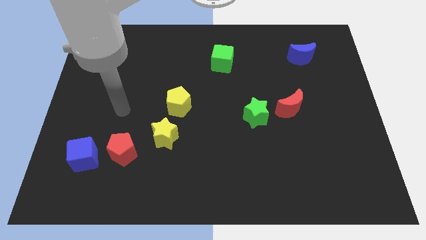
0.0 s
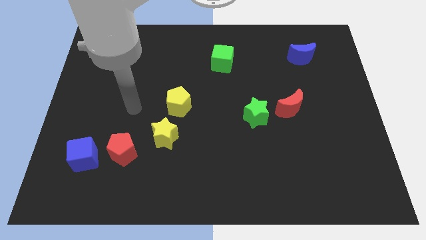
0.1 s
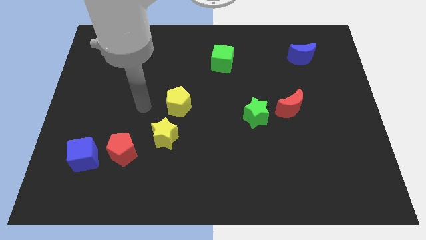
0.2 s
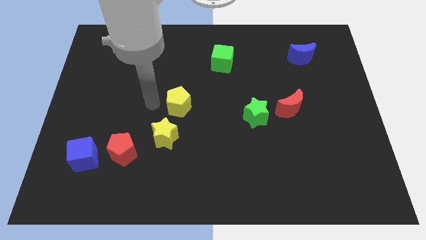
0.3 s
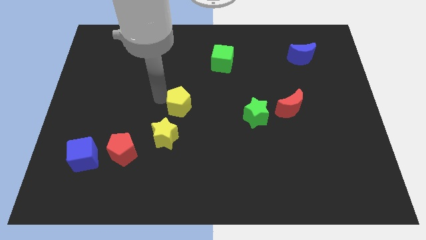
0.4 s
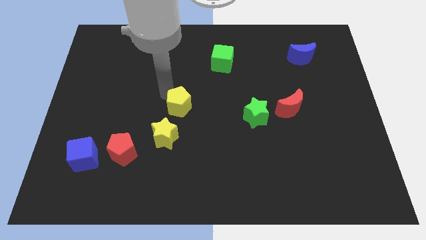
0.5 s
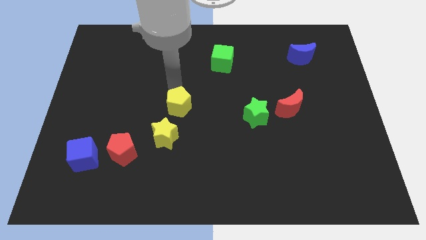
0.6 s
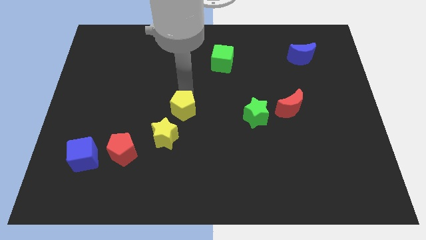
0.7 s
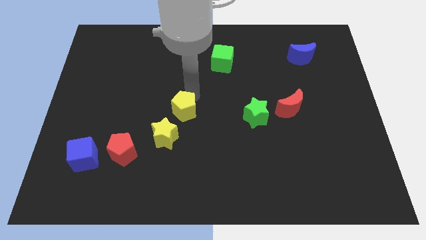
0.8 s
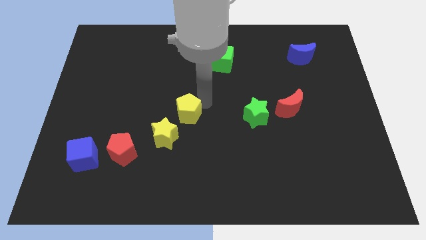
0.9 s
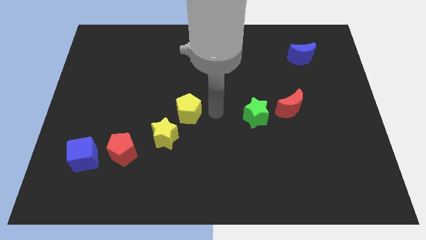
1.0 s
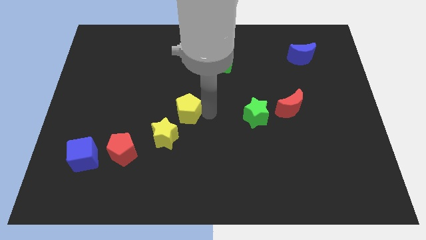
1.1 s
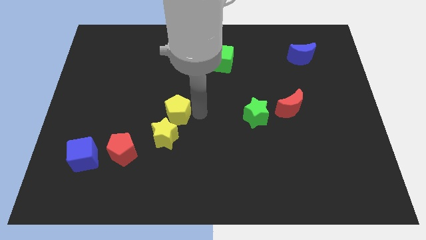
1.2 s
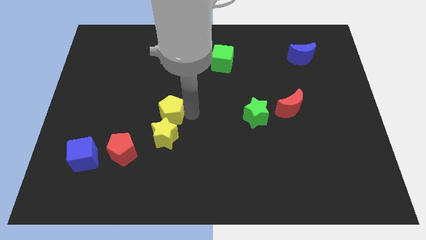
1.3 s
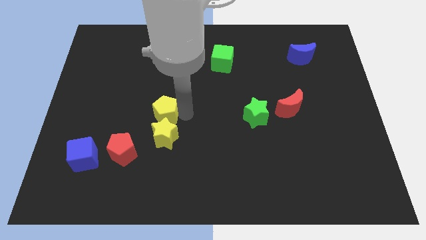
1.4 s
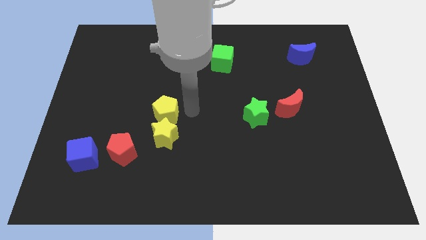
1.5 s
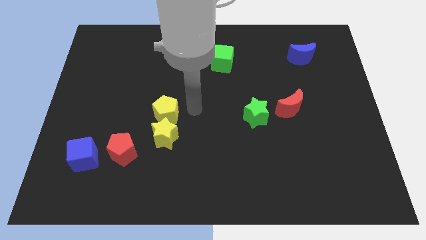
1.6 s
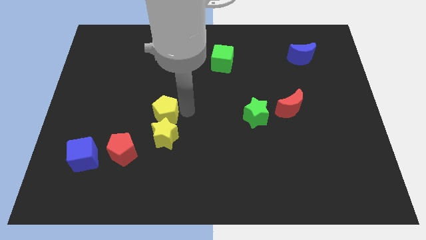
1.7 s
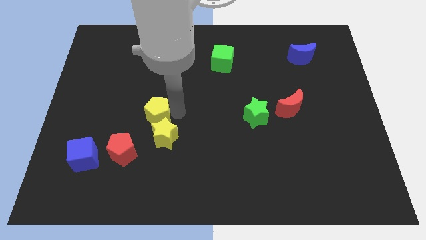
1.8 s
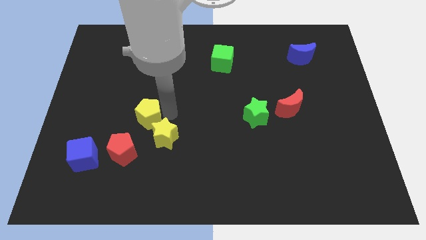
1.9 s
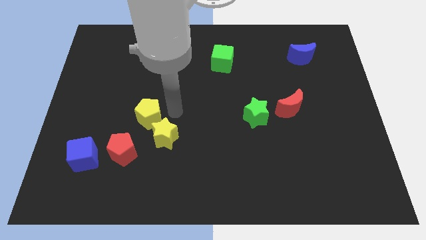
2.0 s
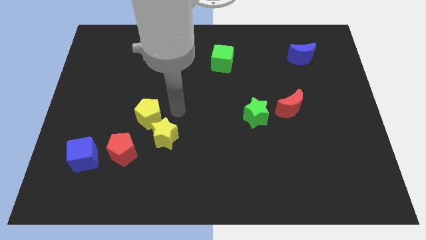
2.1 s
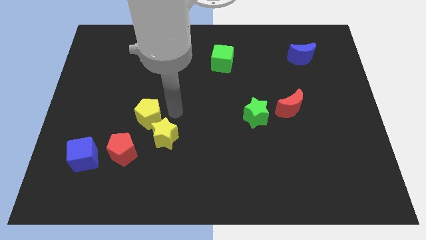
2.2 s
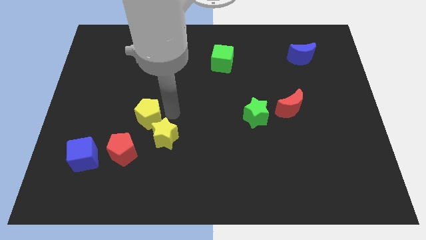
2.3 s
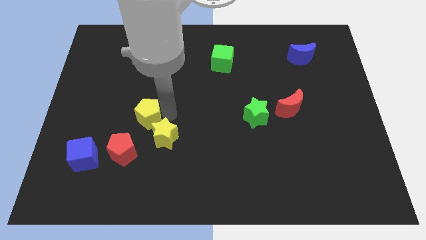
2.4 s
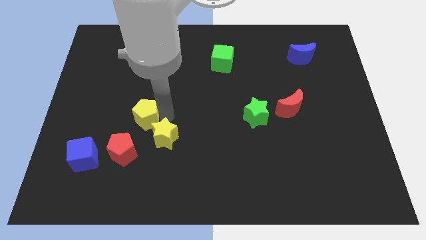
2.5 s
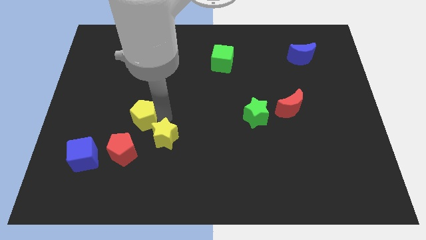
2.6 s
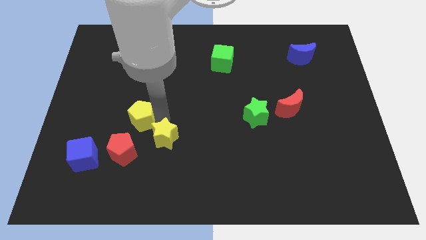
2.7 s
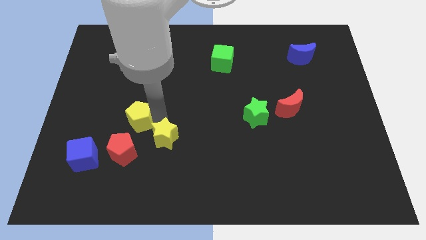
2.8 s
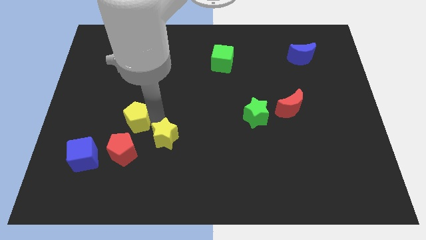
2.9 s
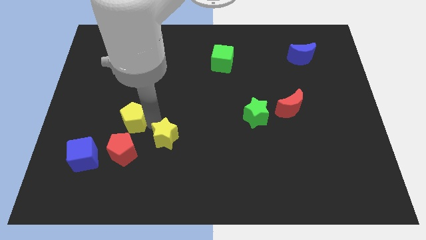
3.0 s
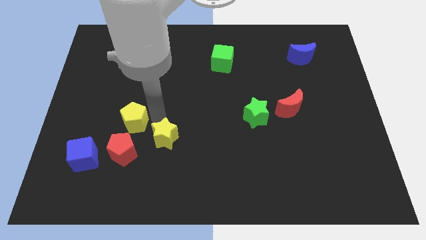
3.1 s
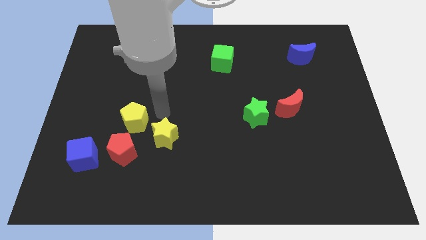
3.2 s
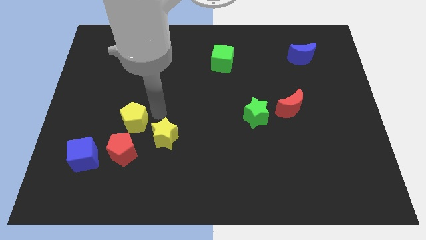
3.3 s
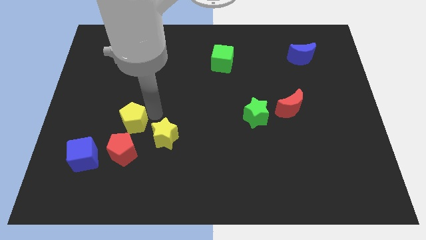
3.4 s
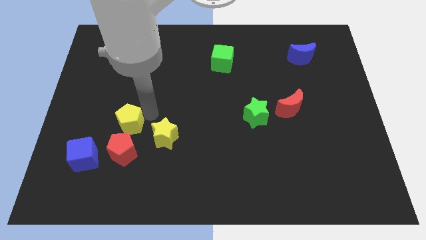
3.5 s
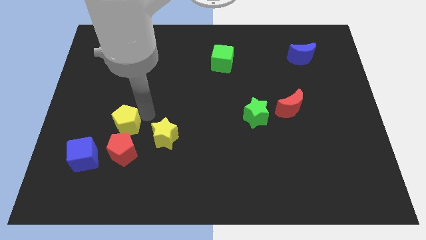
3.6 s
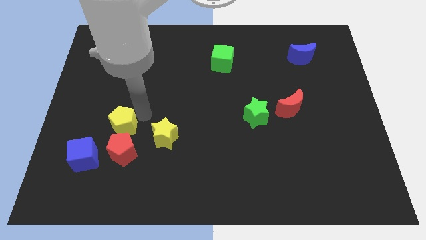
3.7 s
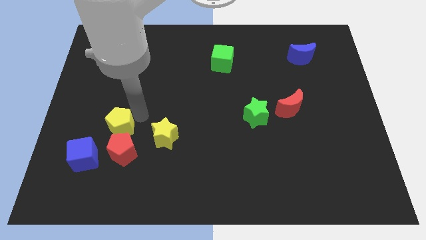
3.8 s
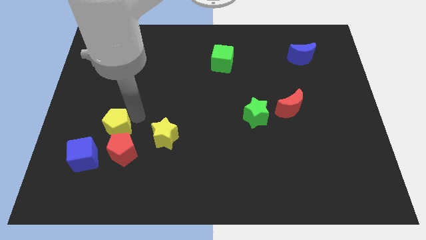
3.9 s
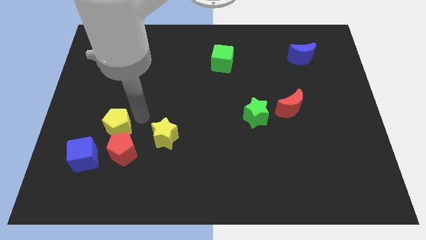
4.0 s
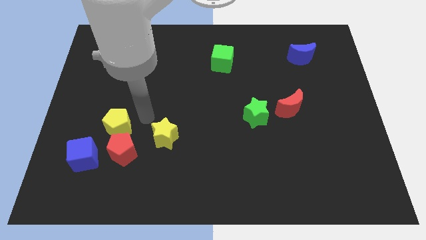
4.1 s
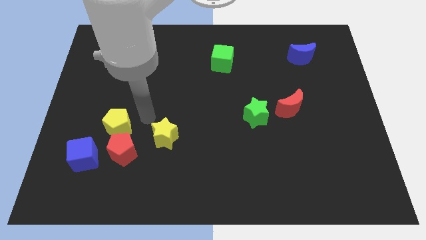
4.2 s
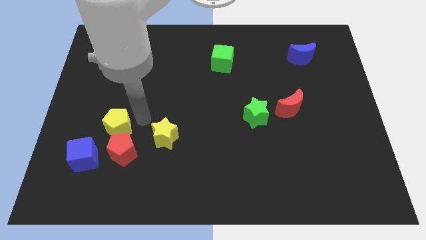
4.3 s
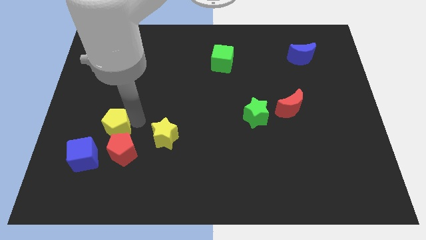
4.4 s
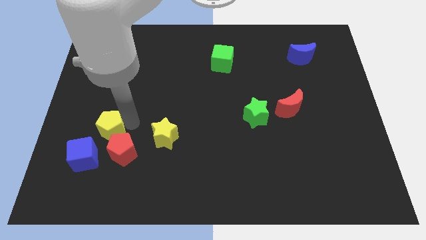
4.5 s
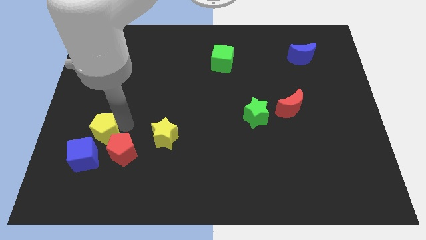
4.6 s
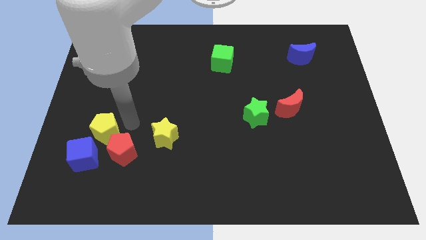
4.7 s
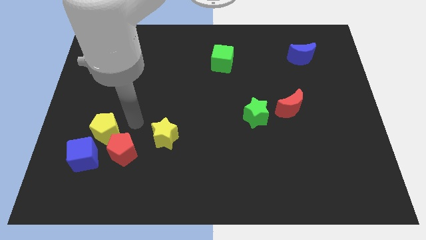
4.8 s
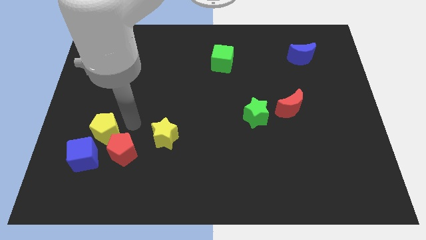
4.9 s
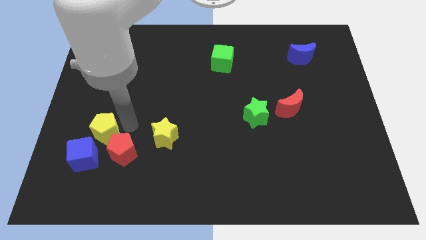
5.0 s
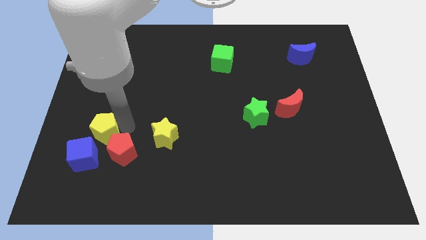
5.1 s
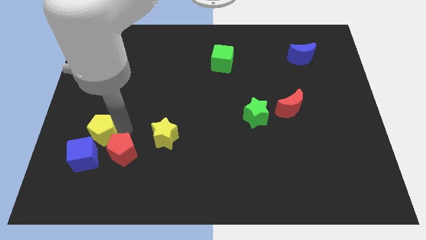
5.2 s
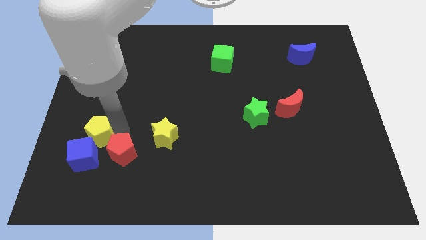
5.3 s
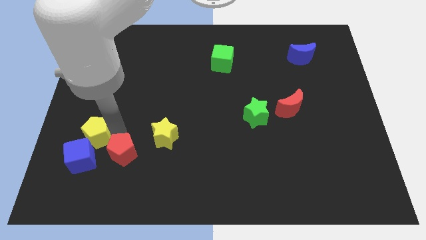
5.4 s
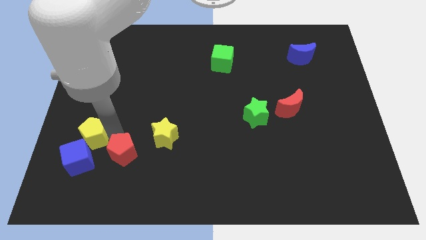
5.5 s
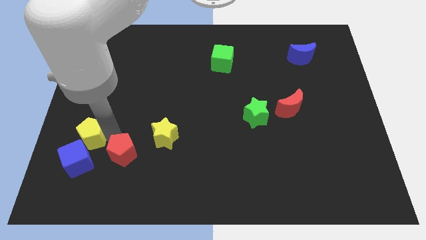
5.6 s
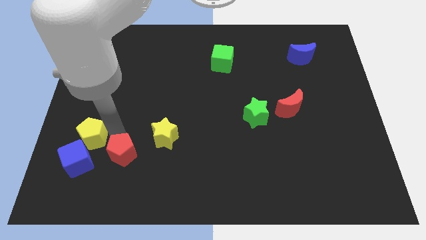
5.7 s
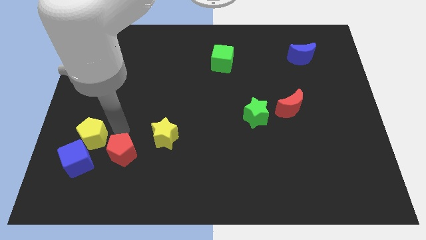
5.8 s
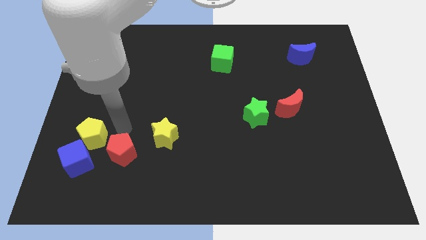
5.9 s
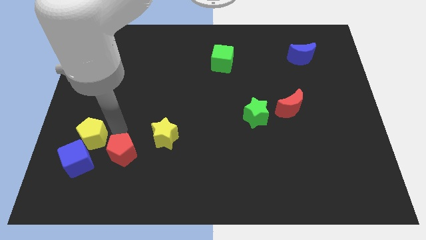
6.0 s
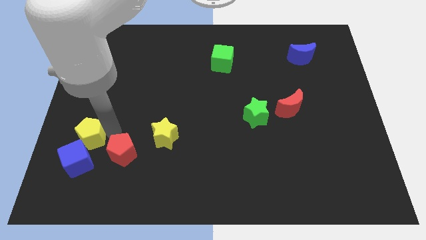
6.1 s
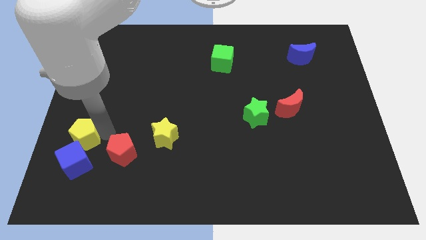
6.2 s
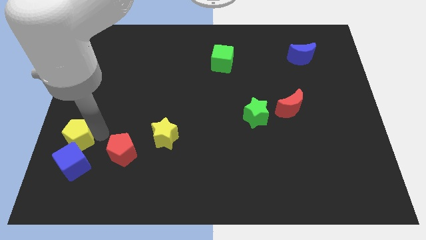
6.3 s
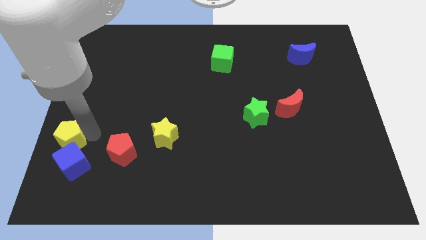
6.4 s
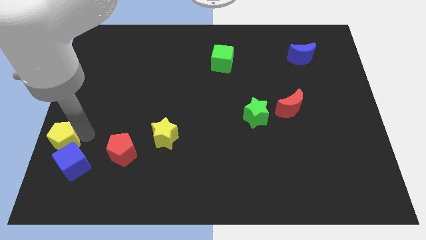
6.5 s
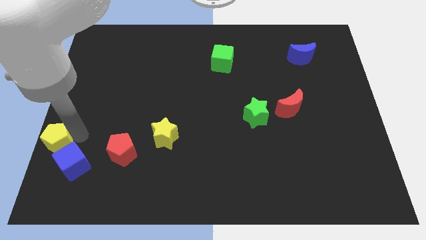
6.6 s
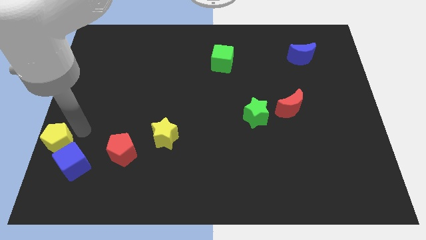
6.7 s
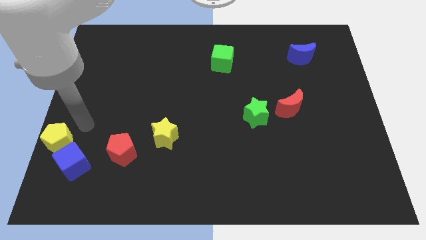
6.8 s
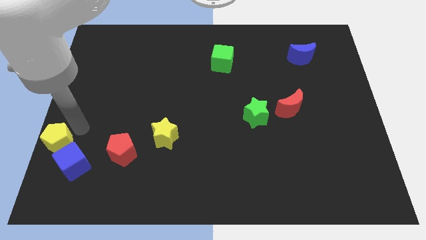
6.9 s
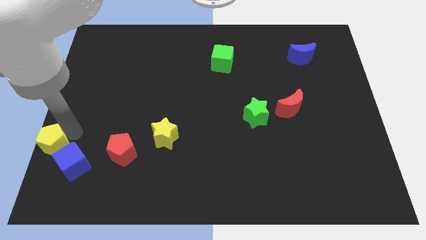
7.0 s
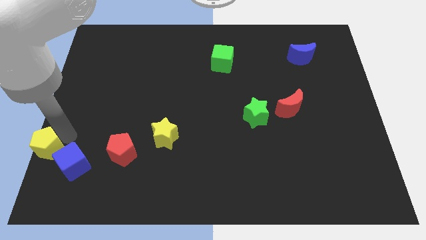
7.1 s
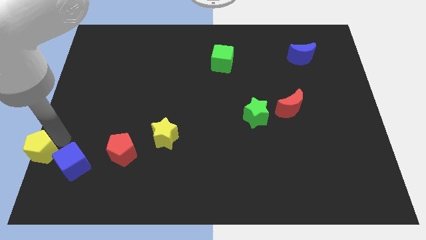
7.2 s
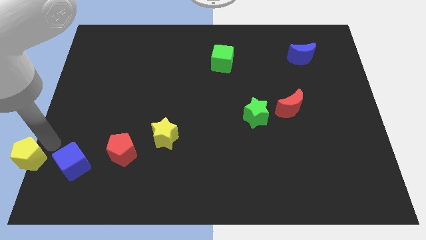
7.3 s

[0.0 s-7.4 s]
put the yellow pentagon to the bottom left of the board
